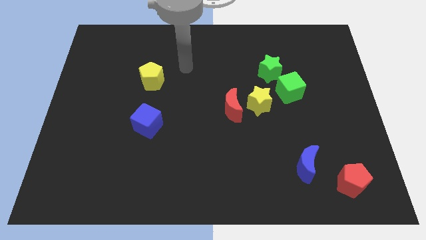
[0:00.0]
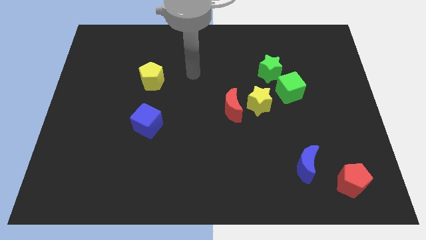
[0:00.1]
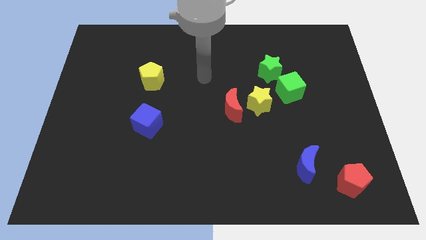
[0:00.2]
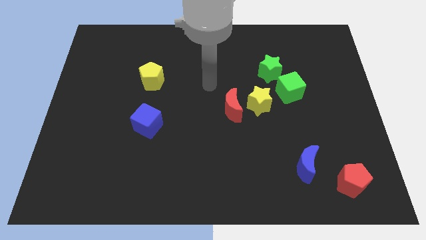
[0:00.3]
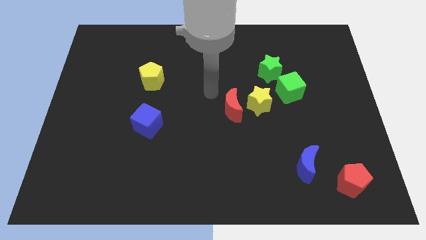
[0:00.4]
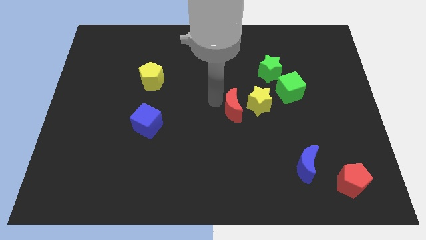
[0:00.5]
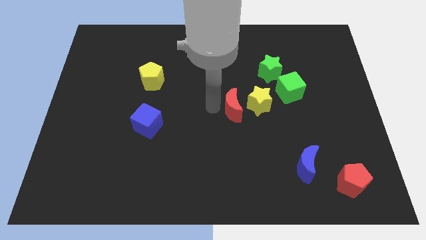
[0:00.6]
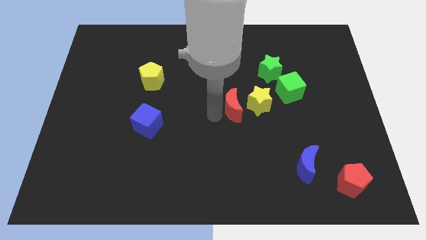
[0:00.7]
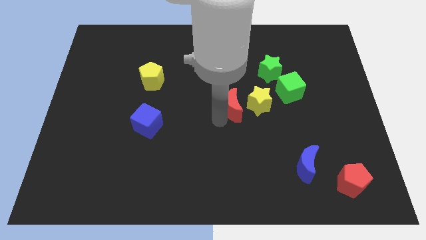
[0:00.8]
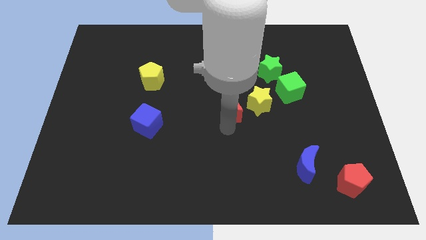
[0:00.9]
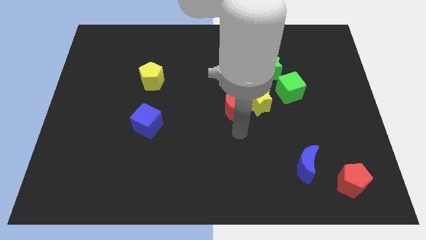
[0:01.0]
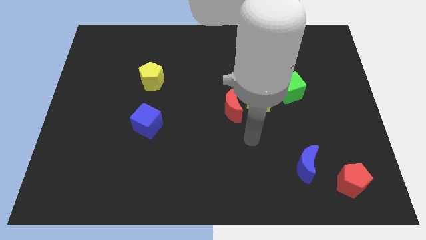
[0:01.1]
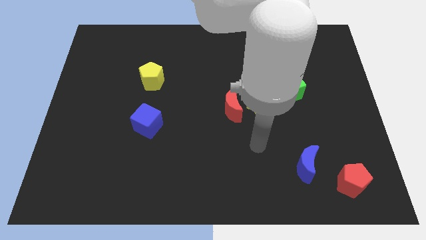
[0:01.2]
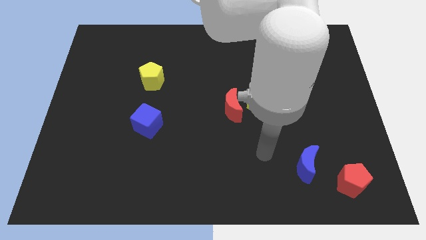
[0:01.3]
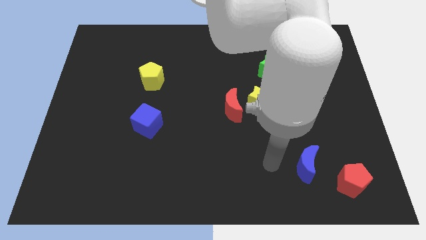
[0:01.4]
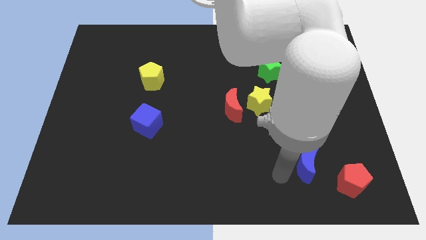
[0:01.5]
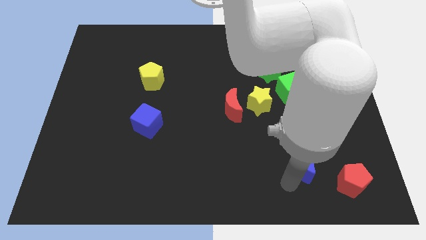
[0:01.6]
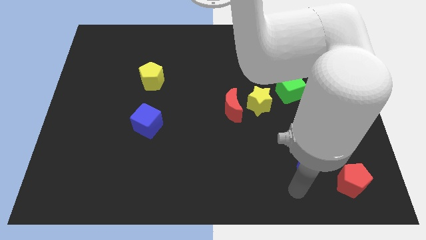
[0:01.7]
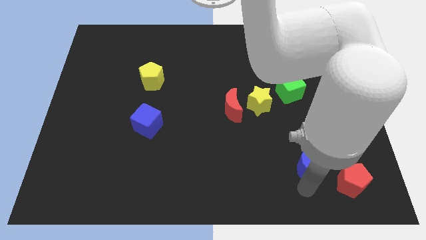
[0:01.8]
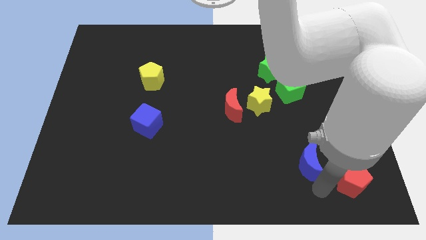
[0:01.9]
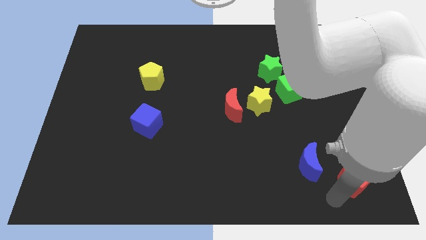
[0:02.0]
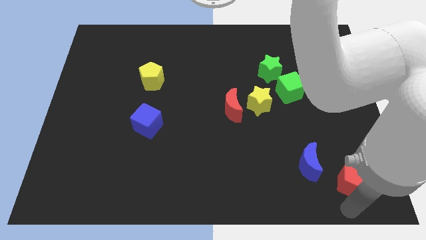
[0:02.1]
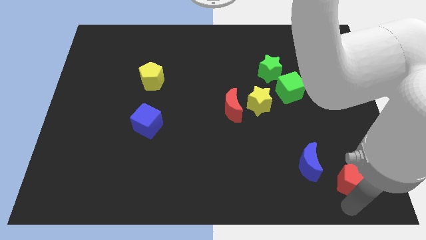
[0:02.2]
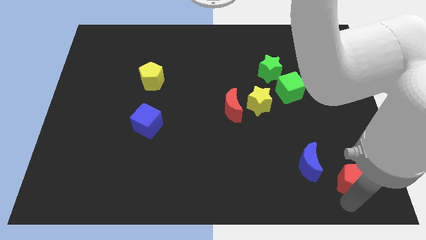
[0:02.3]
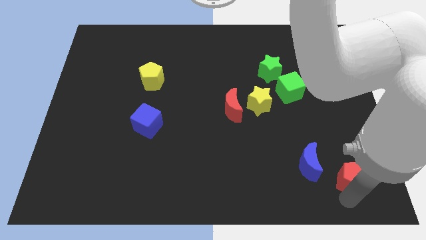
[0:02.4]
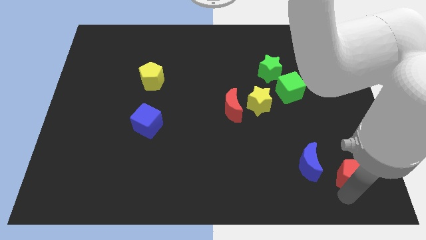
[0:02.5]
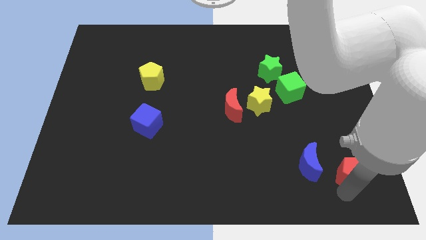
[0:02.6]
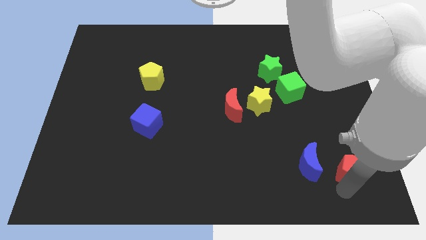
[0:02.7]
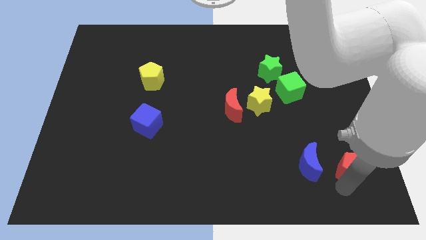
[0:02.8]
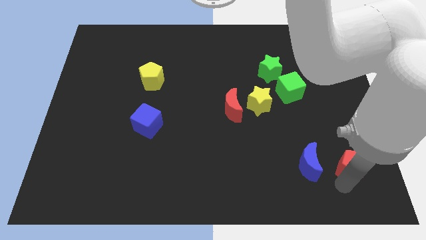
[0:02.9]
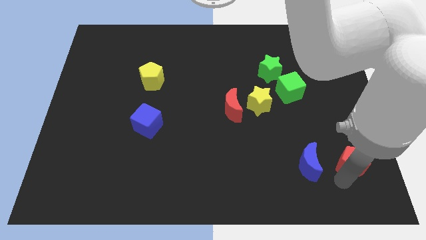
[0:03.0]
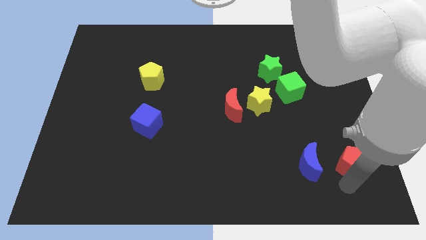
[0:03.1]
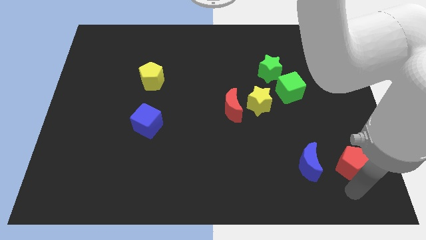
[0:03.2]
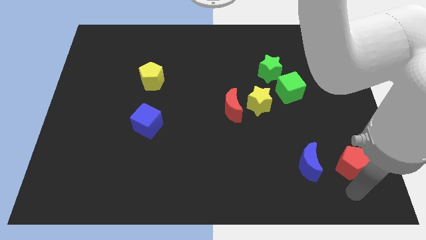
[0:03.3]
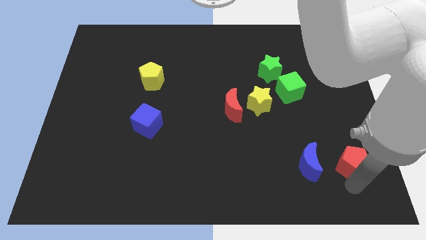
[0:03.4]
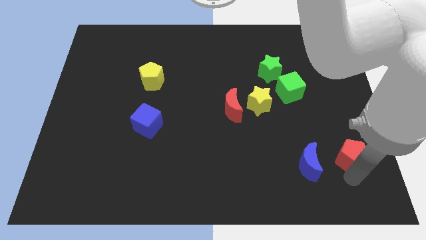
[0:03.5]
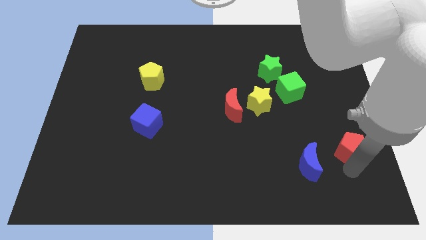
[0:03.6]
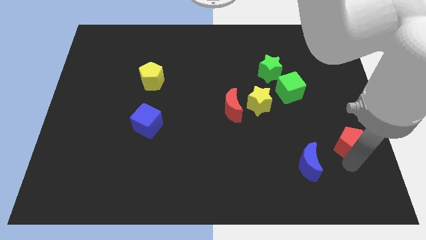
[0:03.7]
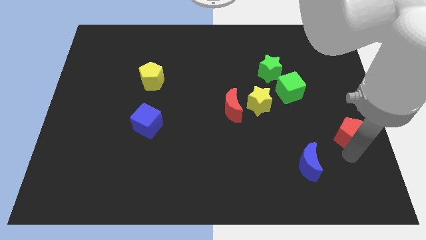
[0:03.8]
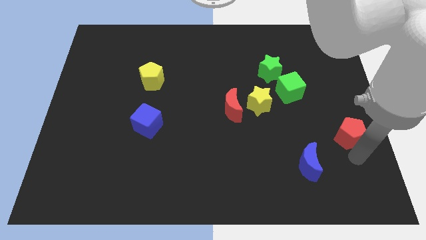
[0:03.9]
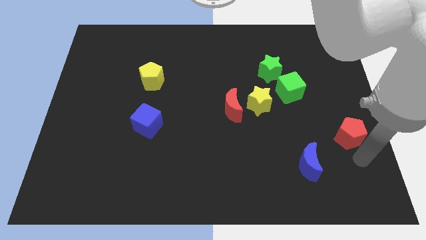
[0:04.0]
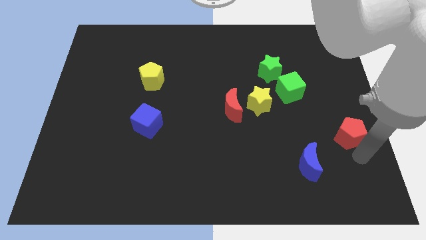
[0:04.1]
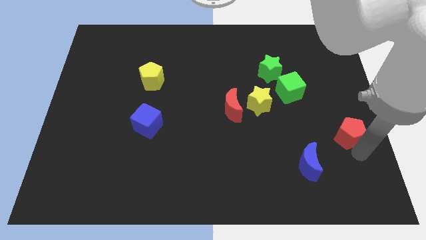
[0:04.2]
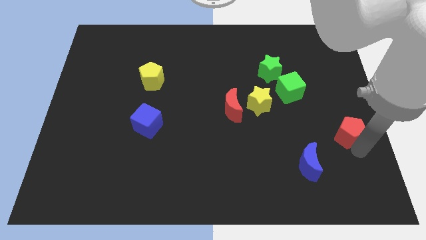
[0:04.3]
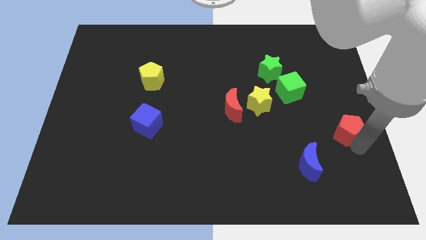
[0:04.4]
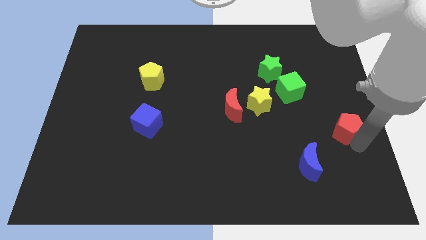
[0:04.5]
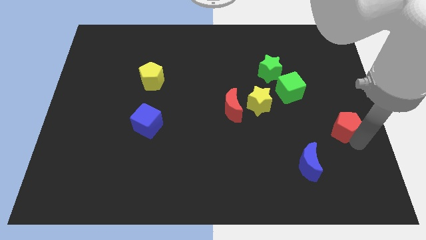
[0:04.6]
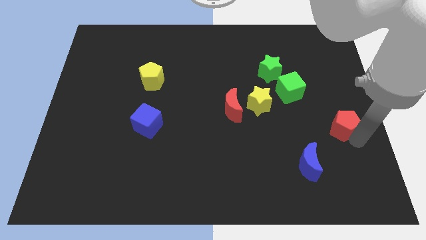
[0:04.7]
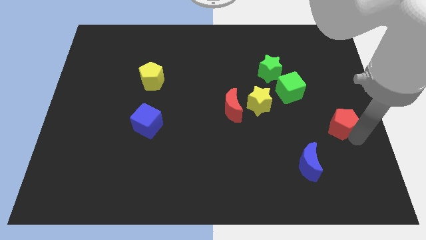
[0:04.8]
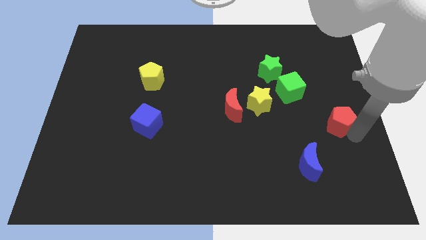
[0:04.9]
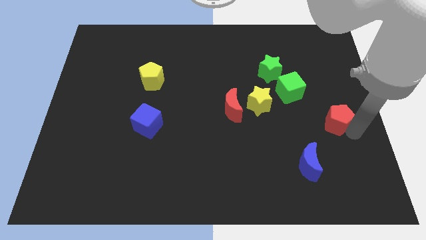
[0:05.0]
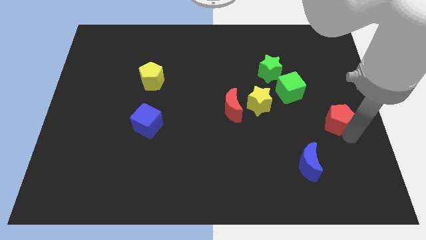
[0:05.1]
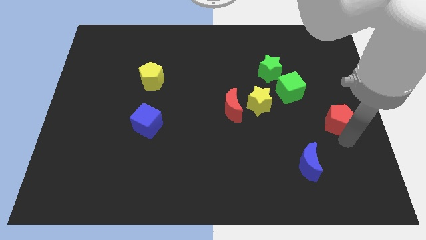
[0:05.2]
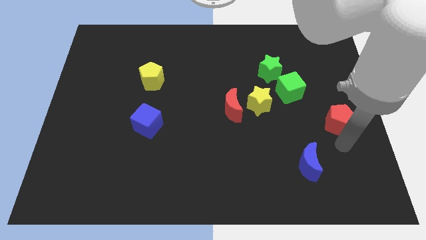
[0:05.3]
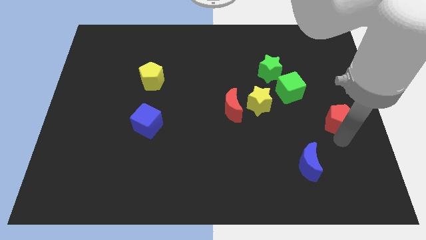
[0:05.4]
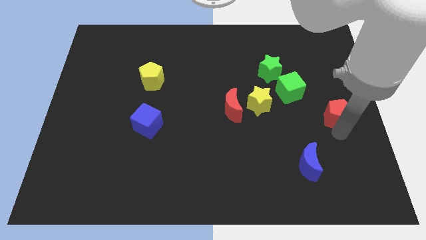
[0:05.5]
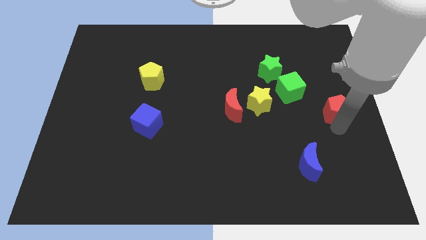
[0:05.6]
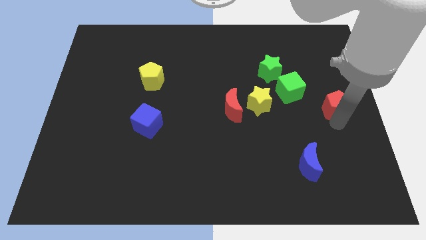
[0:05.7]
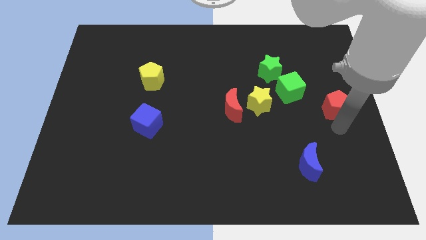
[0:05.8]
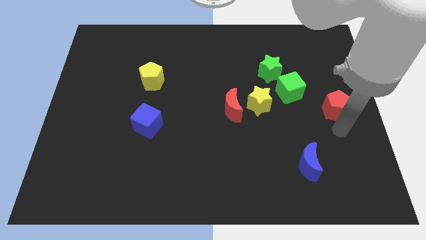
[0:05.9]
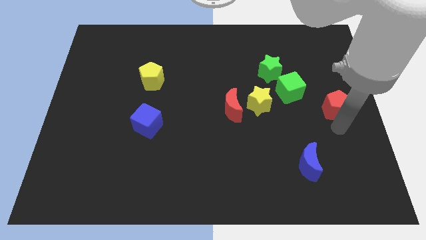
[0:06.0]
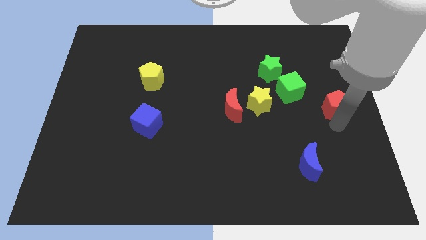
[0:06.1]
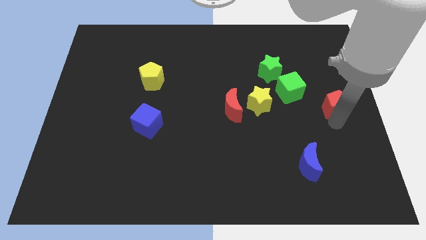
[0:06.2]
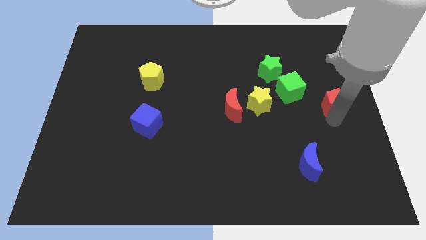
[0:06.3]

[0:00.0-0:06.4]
slide the red pentagon upwards

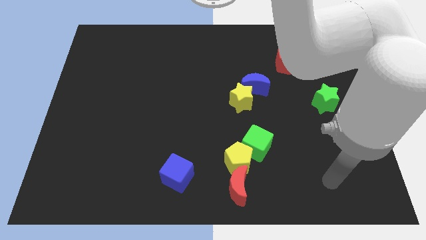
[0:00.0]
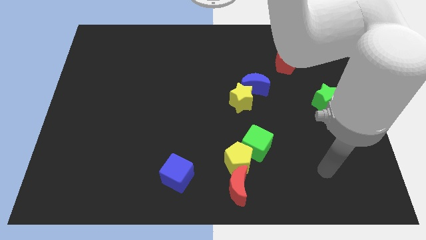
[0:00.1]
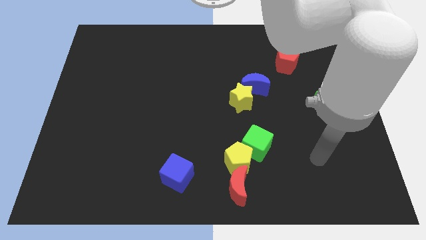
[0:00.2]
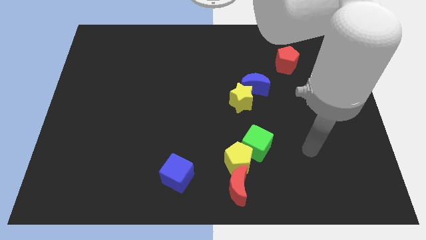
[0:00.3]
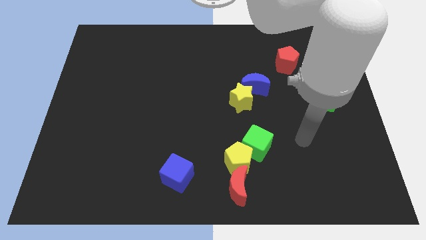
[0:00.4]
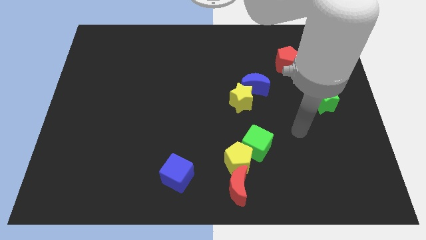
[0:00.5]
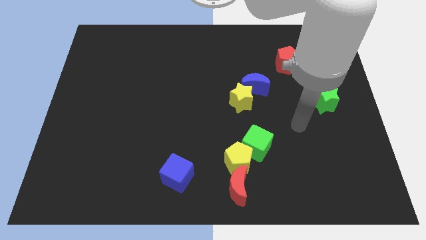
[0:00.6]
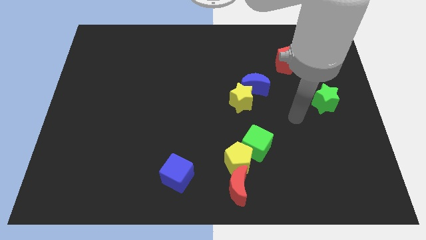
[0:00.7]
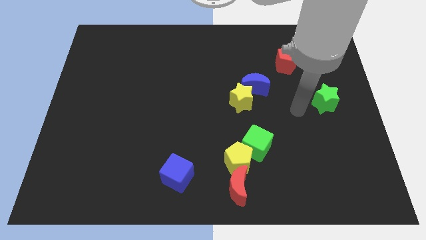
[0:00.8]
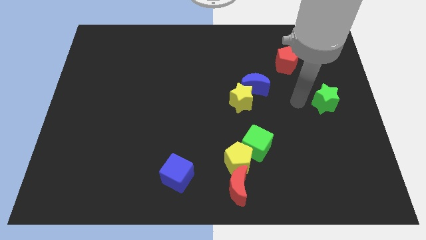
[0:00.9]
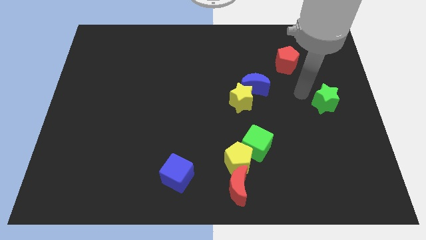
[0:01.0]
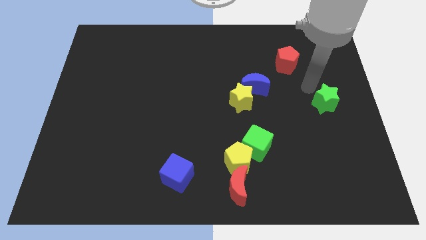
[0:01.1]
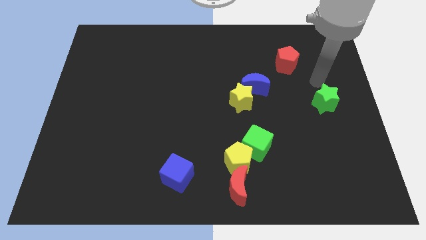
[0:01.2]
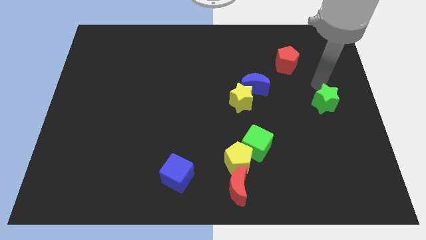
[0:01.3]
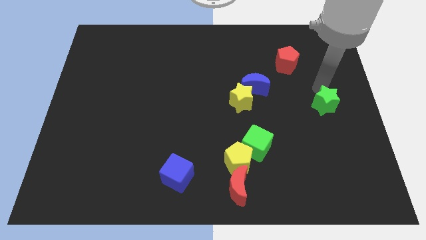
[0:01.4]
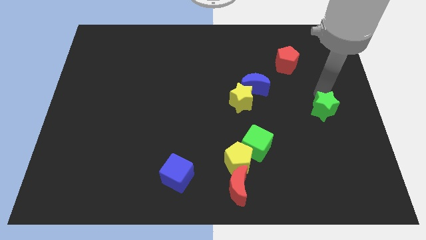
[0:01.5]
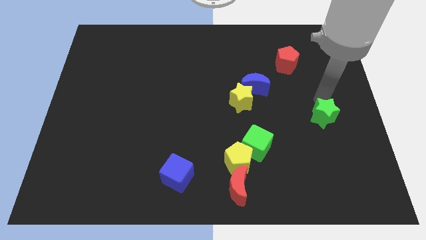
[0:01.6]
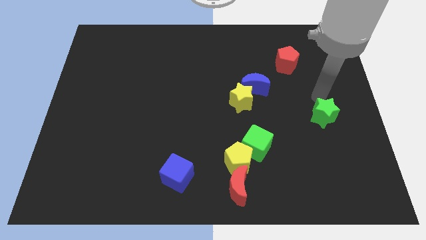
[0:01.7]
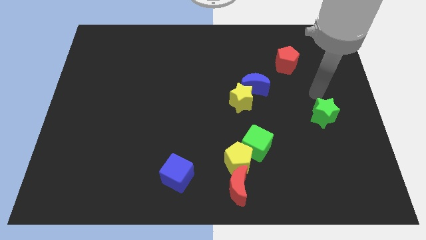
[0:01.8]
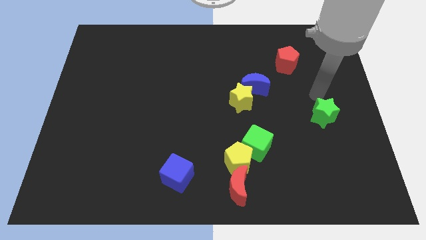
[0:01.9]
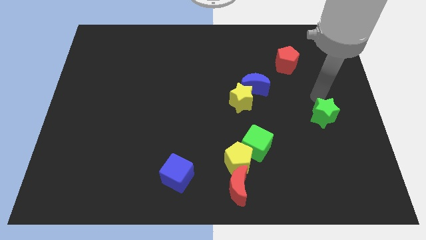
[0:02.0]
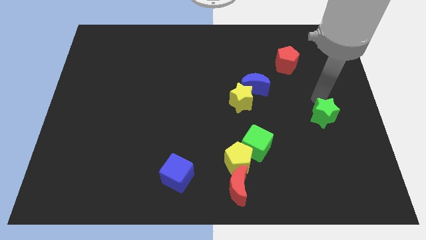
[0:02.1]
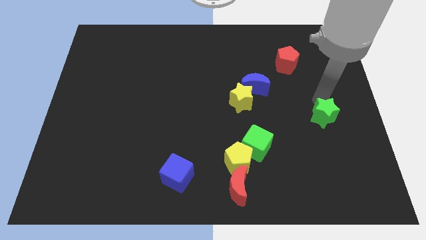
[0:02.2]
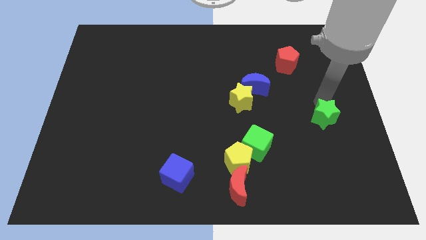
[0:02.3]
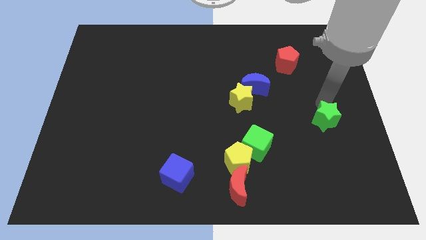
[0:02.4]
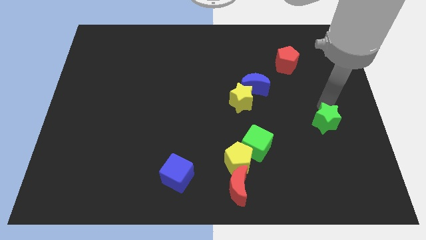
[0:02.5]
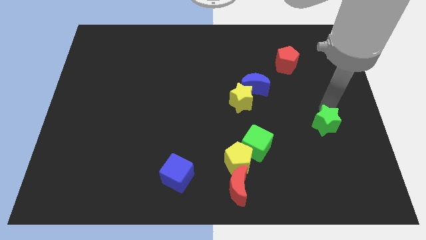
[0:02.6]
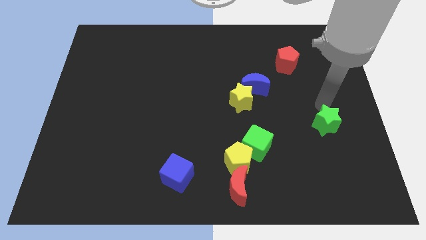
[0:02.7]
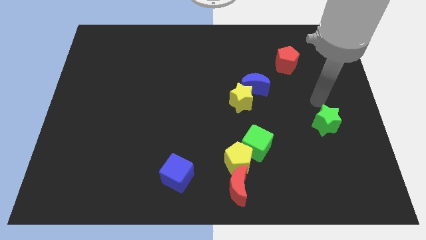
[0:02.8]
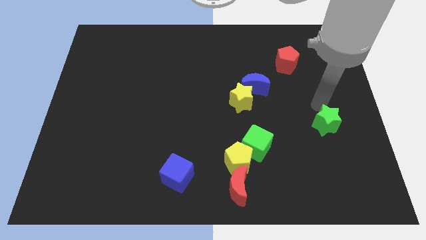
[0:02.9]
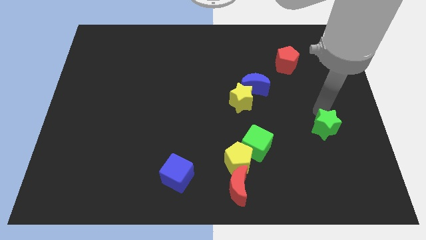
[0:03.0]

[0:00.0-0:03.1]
push the green star down a bit
